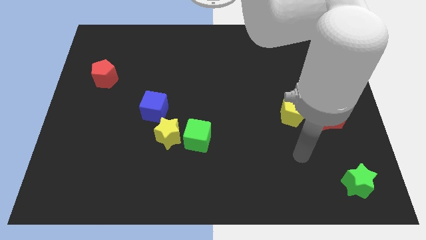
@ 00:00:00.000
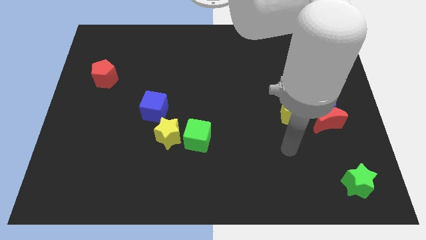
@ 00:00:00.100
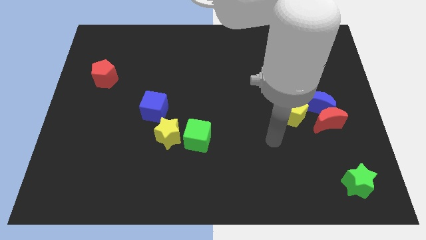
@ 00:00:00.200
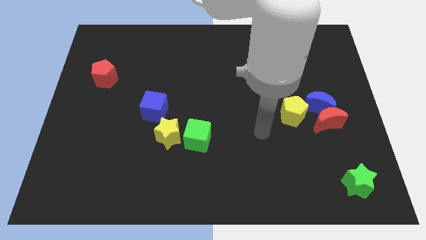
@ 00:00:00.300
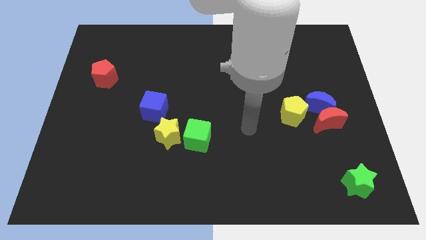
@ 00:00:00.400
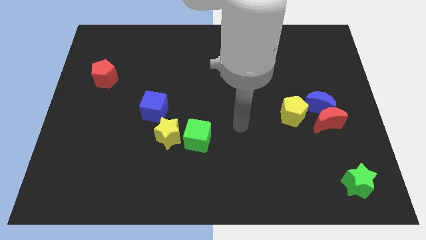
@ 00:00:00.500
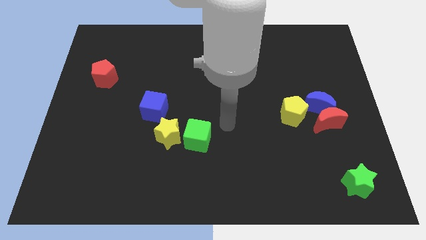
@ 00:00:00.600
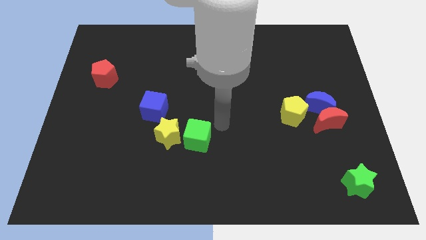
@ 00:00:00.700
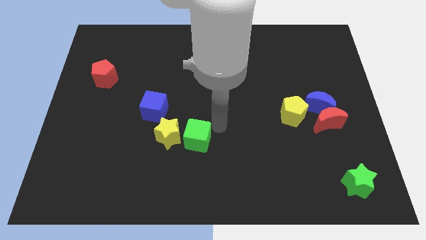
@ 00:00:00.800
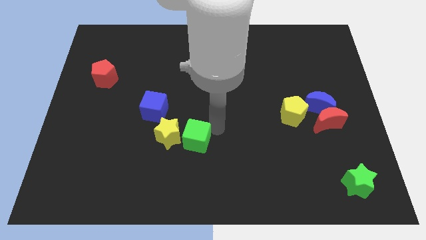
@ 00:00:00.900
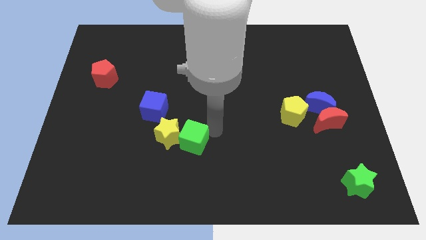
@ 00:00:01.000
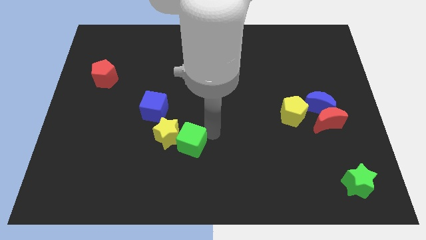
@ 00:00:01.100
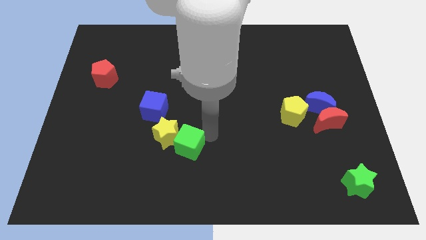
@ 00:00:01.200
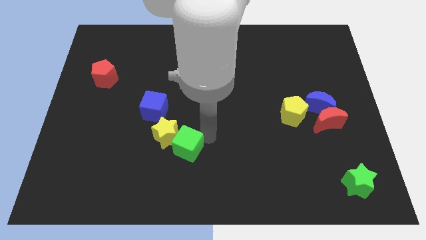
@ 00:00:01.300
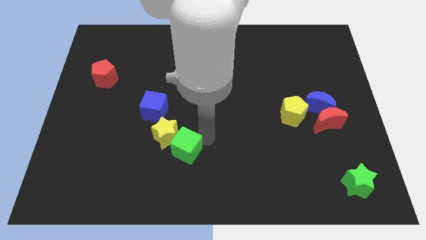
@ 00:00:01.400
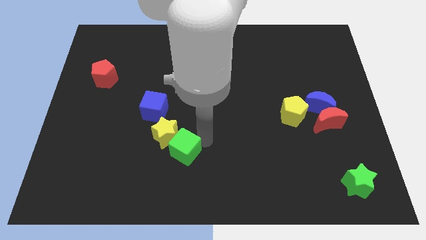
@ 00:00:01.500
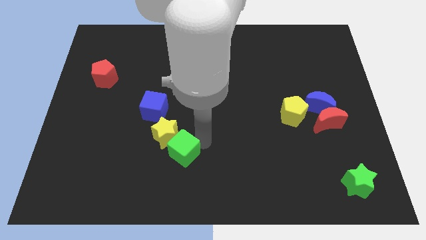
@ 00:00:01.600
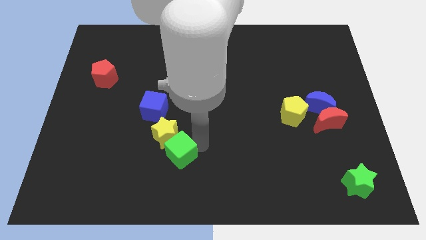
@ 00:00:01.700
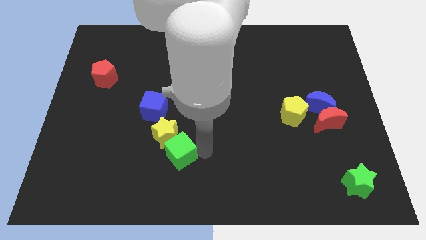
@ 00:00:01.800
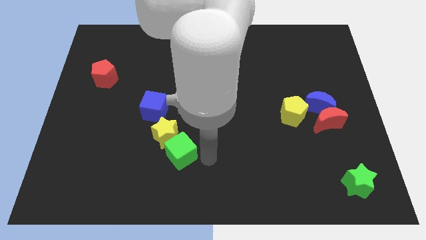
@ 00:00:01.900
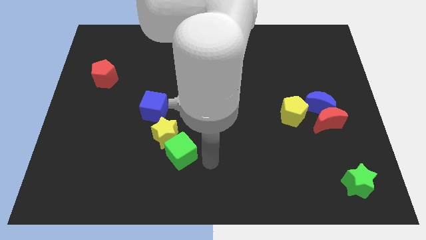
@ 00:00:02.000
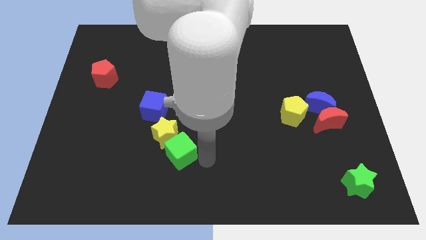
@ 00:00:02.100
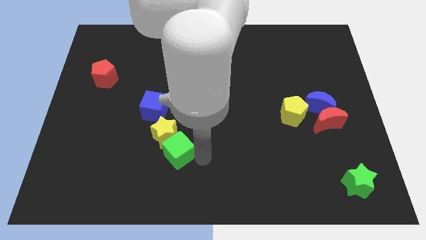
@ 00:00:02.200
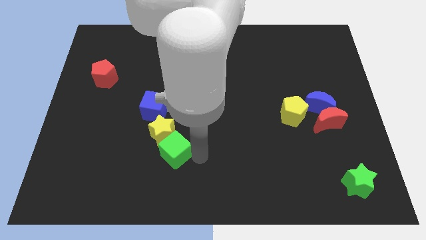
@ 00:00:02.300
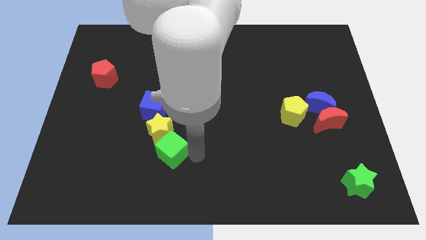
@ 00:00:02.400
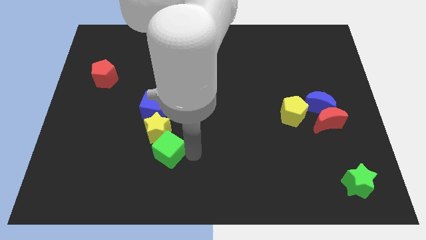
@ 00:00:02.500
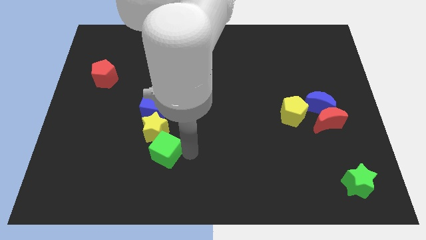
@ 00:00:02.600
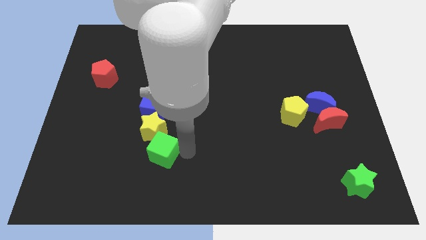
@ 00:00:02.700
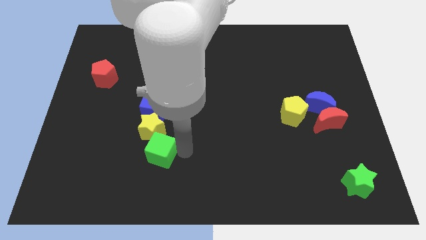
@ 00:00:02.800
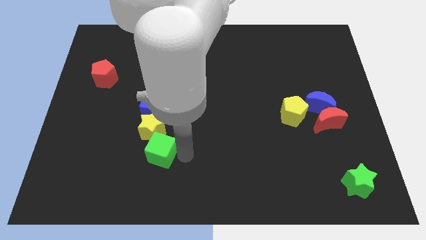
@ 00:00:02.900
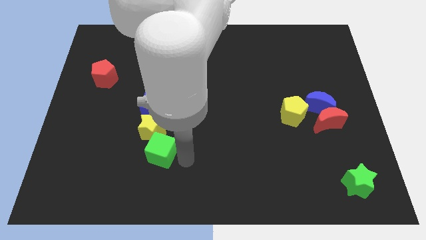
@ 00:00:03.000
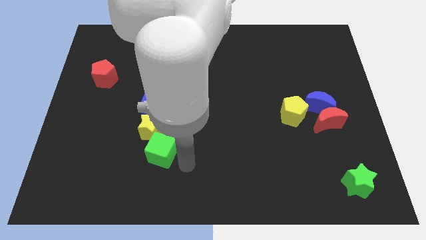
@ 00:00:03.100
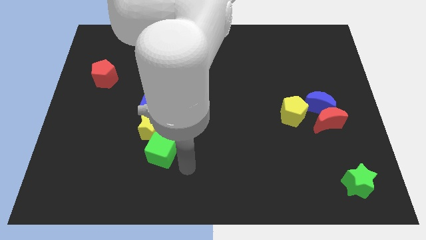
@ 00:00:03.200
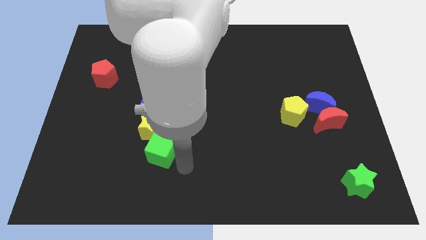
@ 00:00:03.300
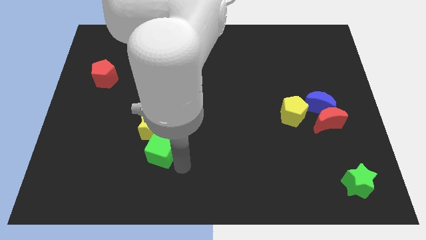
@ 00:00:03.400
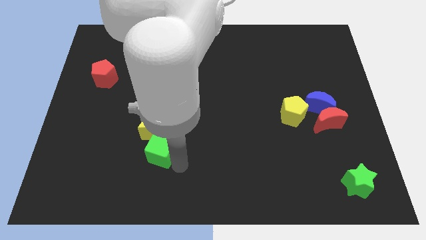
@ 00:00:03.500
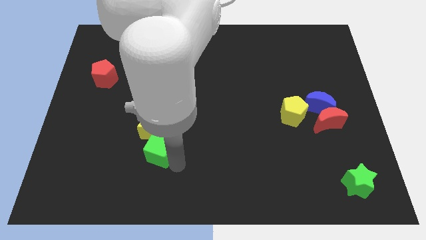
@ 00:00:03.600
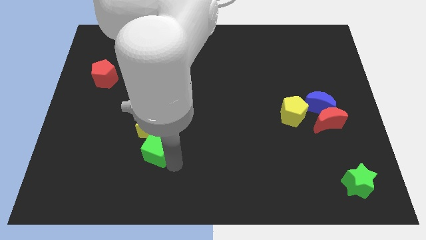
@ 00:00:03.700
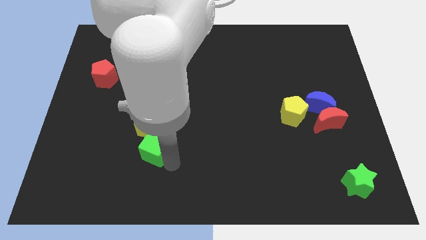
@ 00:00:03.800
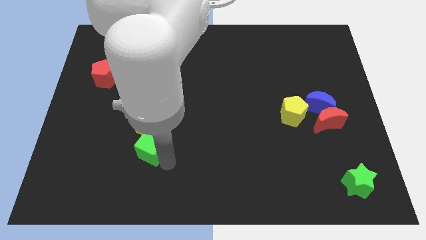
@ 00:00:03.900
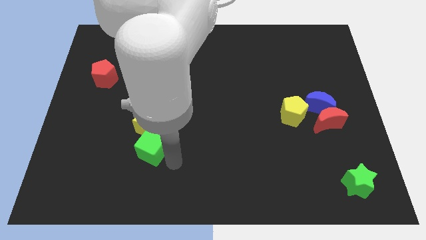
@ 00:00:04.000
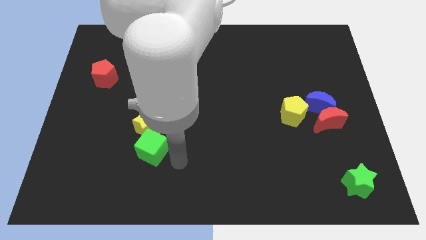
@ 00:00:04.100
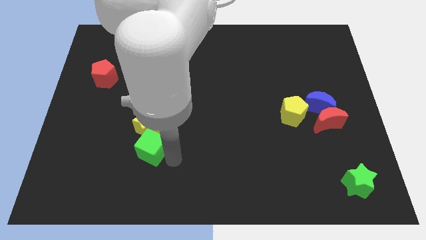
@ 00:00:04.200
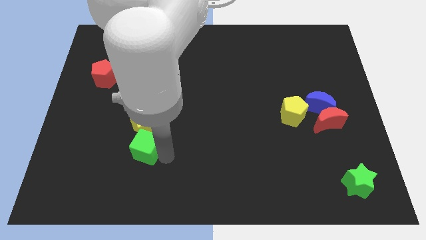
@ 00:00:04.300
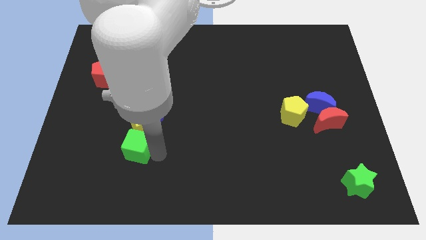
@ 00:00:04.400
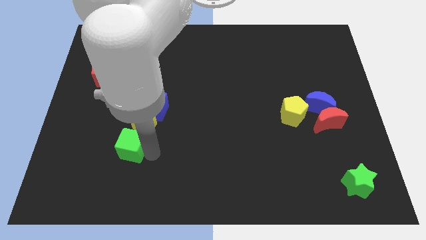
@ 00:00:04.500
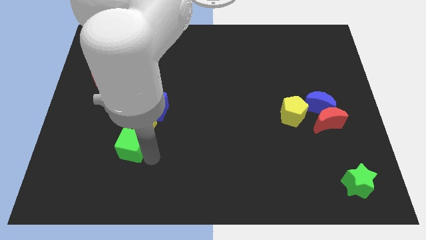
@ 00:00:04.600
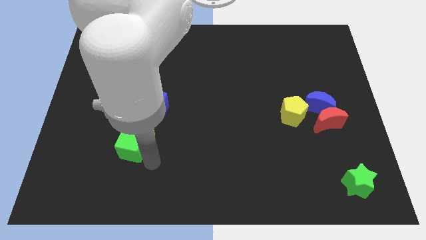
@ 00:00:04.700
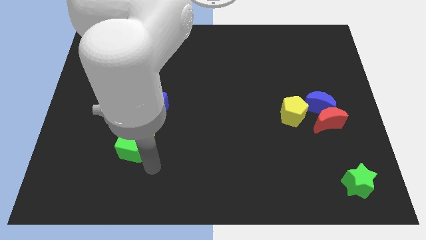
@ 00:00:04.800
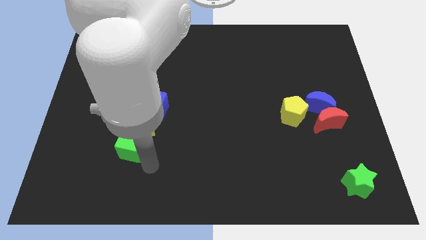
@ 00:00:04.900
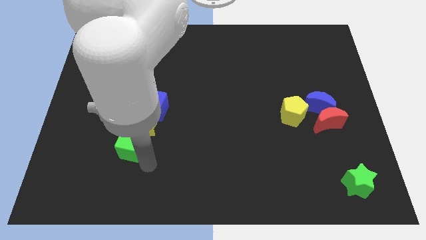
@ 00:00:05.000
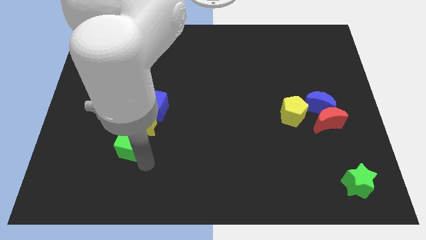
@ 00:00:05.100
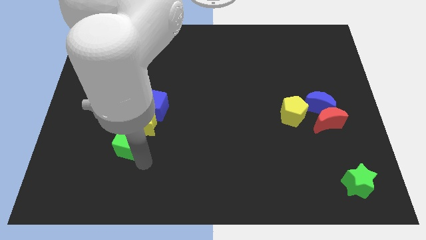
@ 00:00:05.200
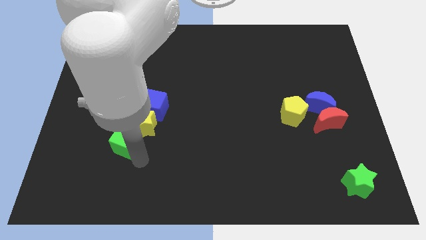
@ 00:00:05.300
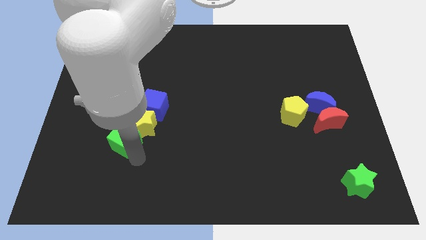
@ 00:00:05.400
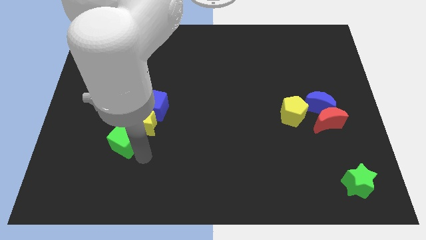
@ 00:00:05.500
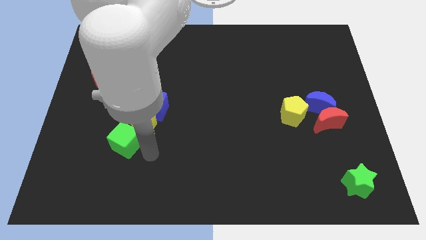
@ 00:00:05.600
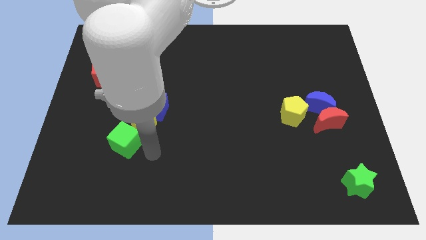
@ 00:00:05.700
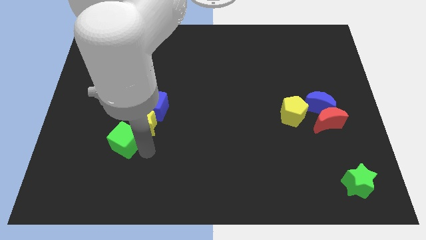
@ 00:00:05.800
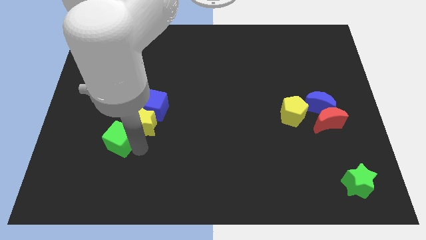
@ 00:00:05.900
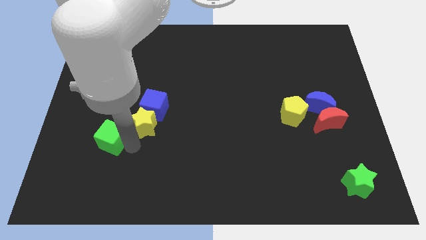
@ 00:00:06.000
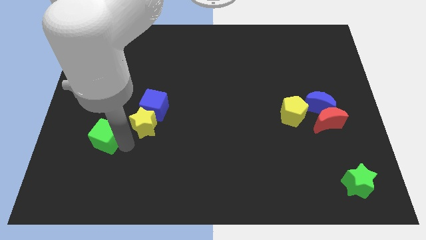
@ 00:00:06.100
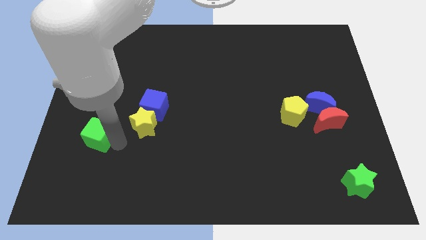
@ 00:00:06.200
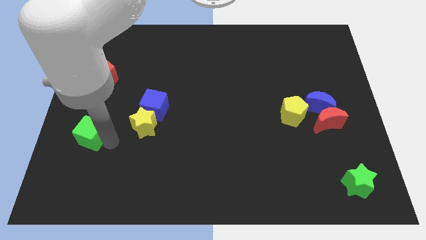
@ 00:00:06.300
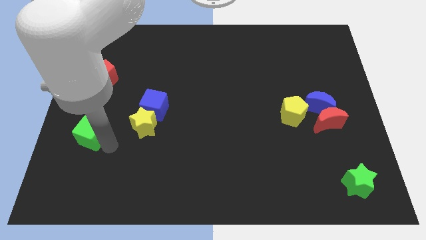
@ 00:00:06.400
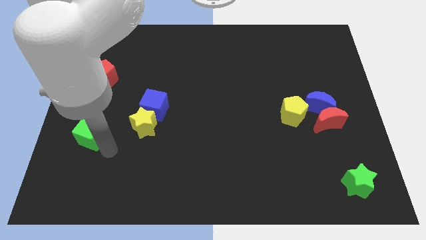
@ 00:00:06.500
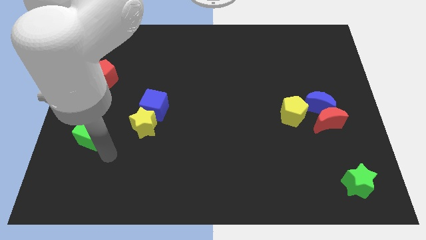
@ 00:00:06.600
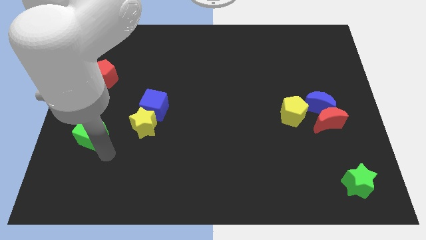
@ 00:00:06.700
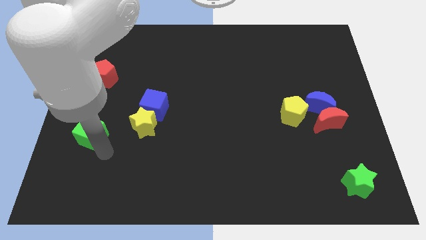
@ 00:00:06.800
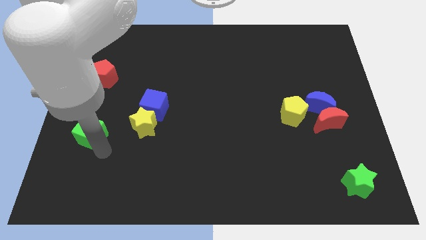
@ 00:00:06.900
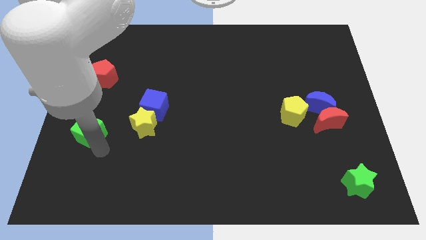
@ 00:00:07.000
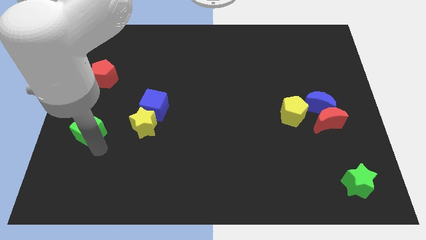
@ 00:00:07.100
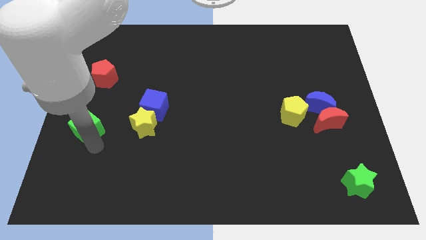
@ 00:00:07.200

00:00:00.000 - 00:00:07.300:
push the green cube to the left side of the board
